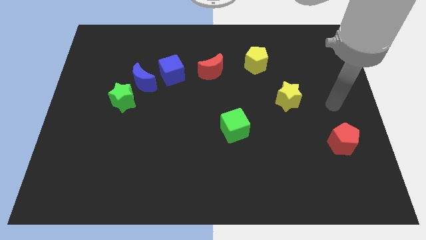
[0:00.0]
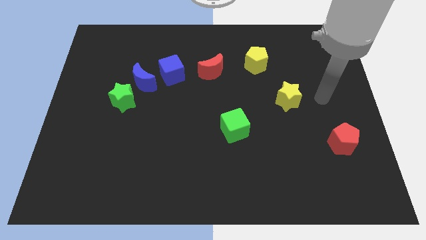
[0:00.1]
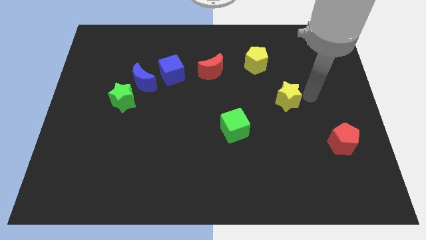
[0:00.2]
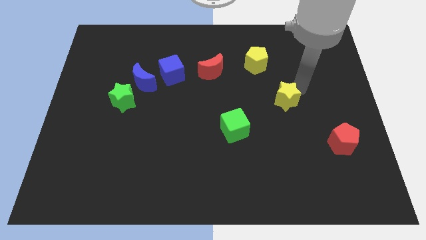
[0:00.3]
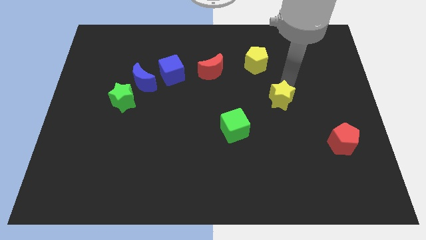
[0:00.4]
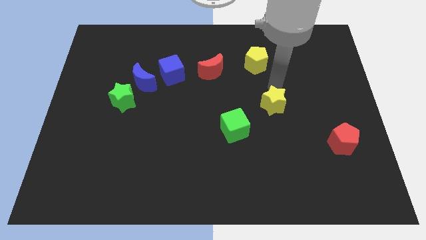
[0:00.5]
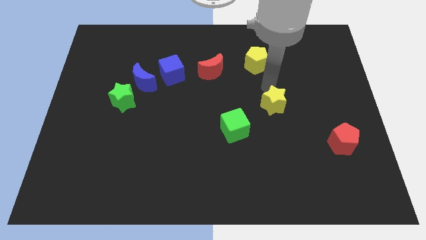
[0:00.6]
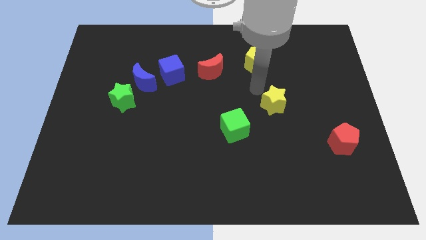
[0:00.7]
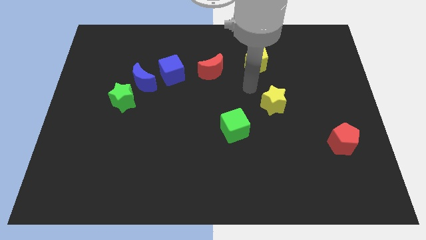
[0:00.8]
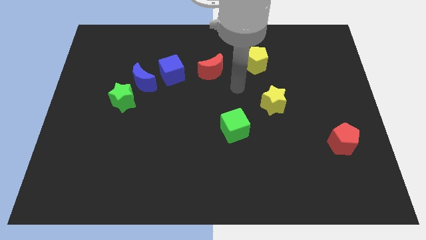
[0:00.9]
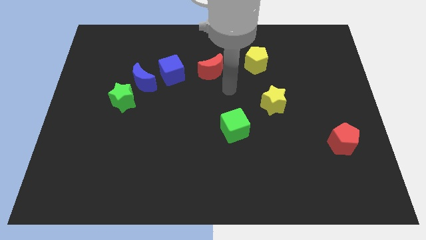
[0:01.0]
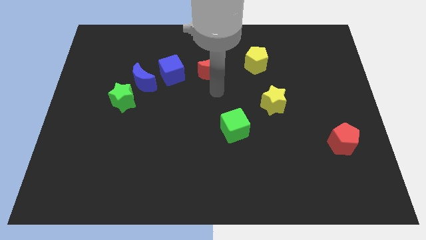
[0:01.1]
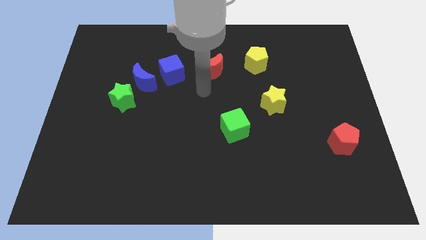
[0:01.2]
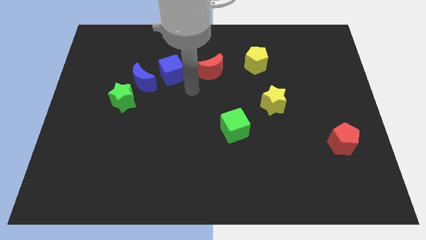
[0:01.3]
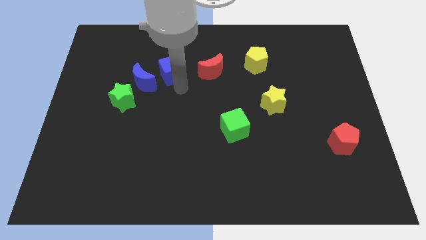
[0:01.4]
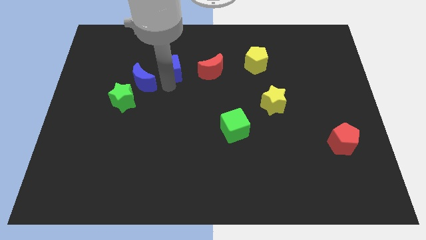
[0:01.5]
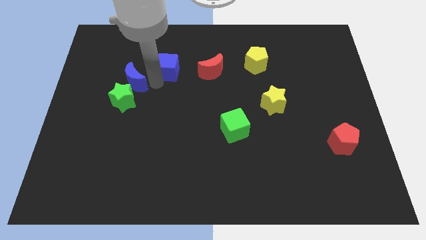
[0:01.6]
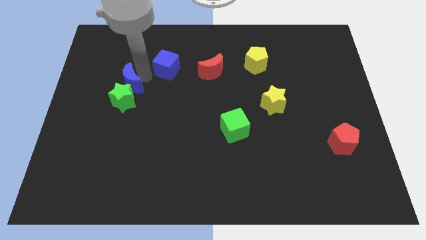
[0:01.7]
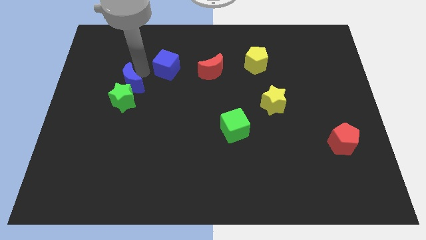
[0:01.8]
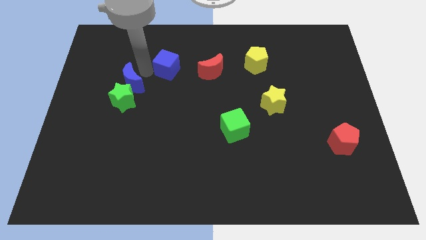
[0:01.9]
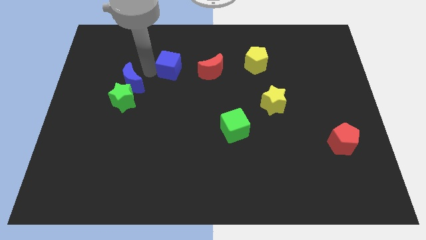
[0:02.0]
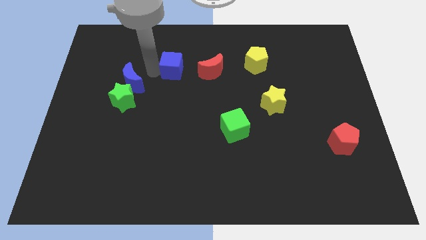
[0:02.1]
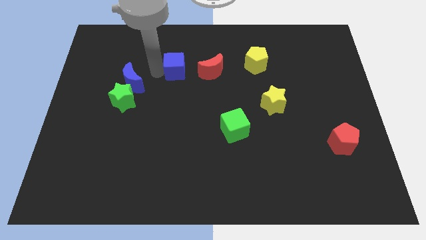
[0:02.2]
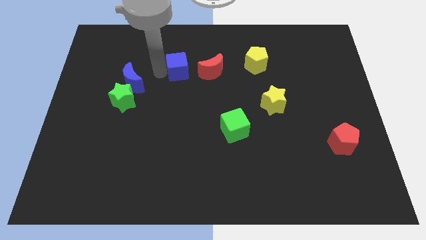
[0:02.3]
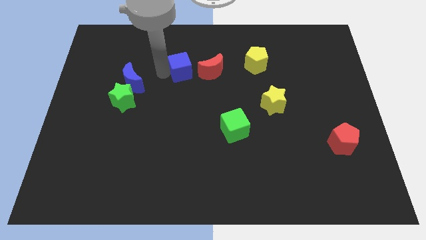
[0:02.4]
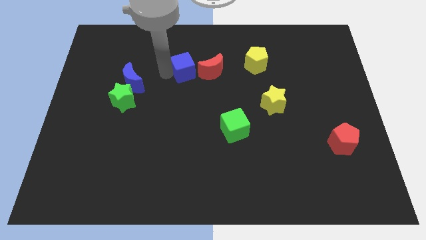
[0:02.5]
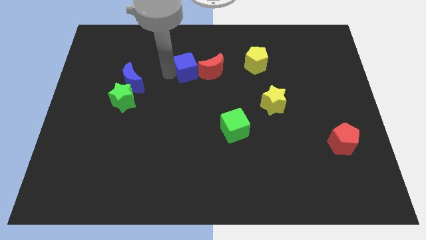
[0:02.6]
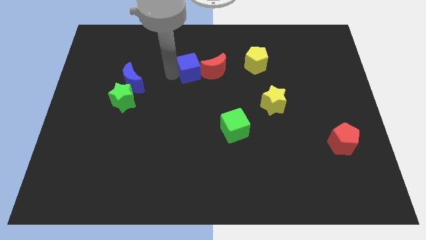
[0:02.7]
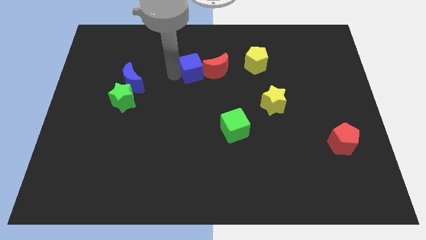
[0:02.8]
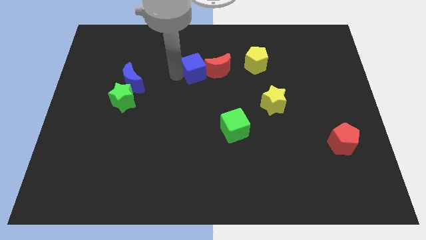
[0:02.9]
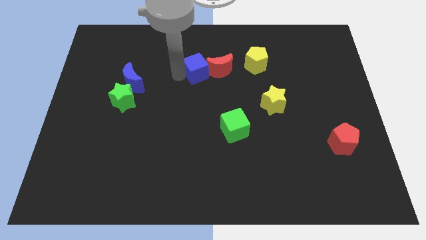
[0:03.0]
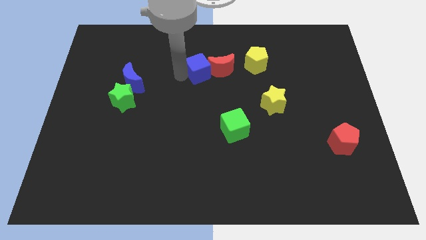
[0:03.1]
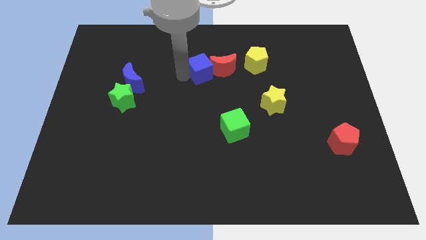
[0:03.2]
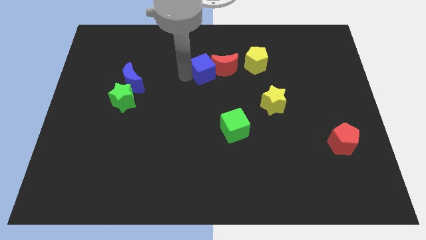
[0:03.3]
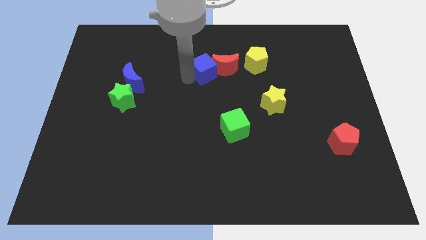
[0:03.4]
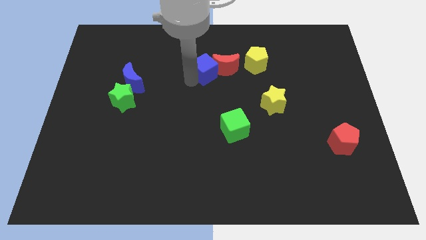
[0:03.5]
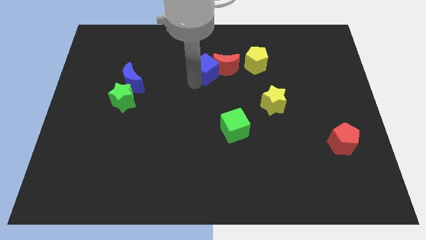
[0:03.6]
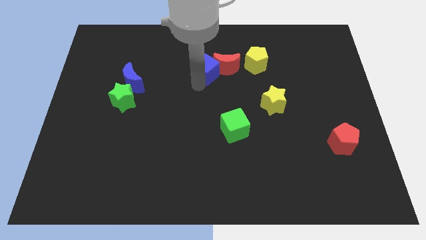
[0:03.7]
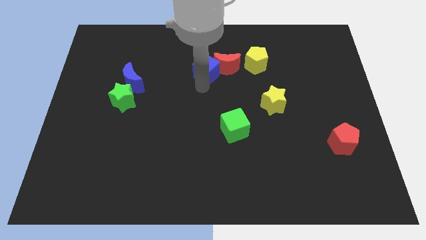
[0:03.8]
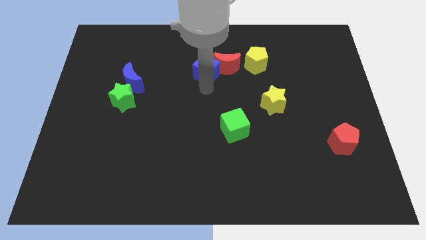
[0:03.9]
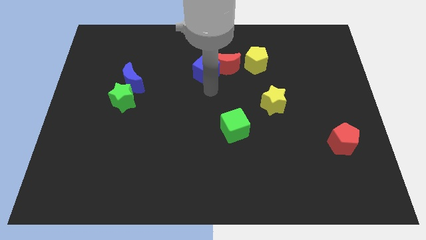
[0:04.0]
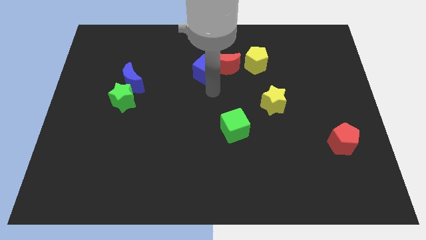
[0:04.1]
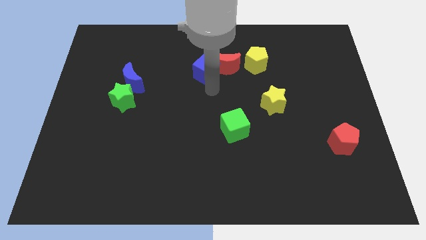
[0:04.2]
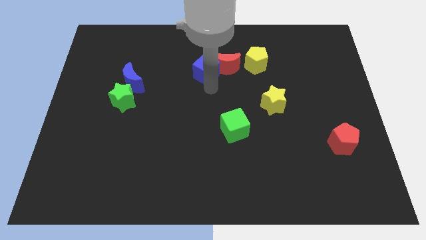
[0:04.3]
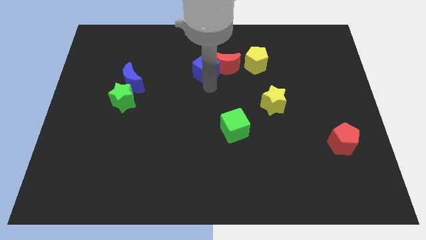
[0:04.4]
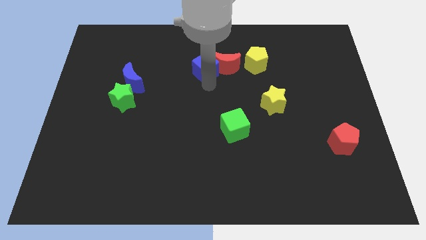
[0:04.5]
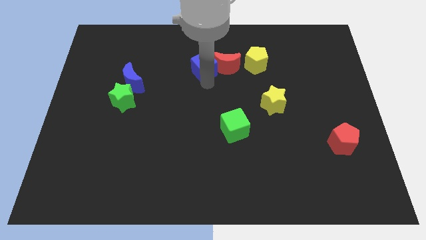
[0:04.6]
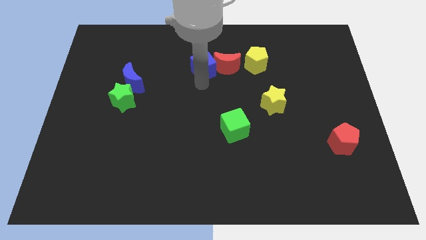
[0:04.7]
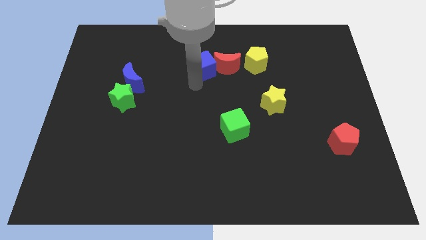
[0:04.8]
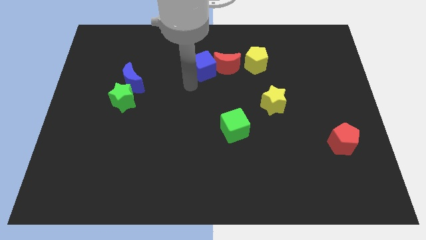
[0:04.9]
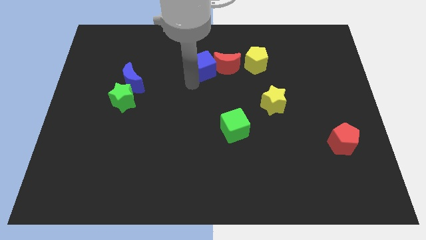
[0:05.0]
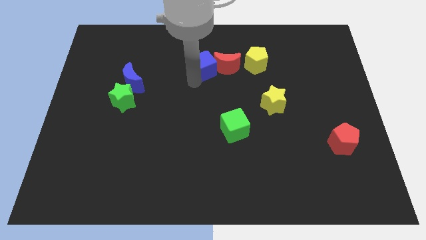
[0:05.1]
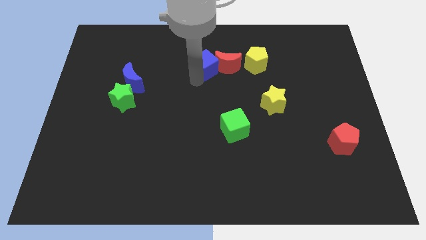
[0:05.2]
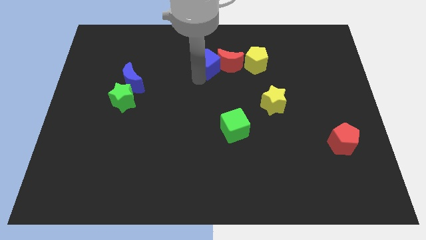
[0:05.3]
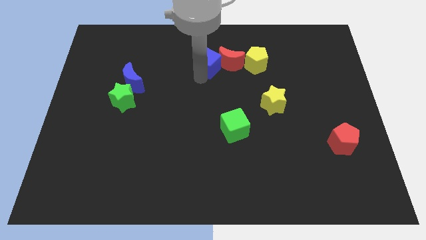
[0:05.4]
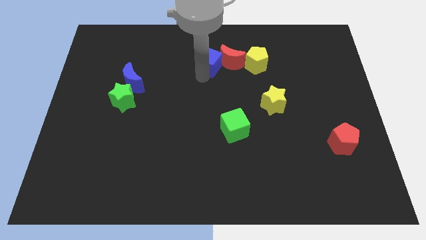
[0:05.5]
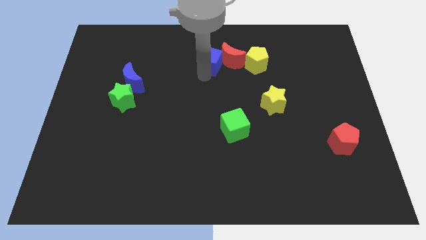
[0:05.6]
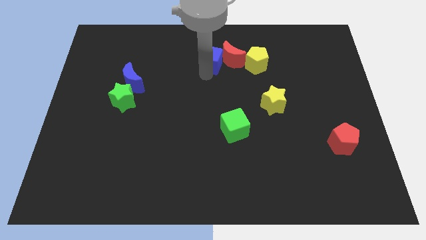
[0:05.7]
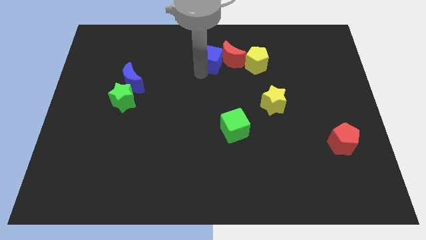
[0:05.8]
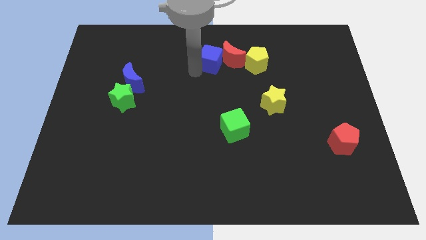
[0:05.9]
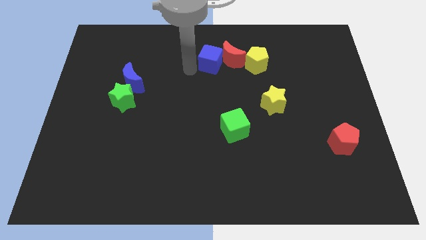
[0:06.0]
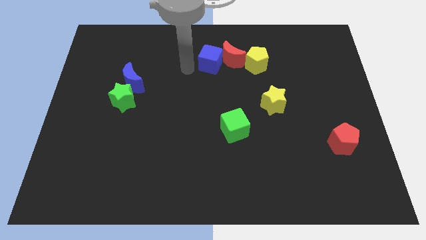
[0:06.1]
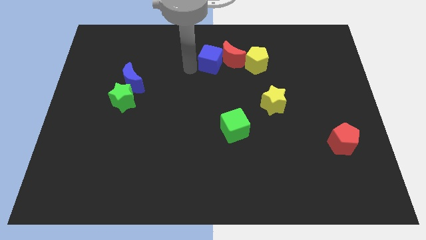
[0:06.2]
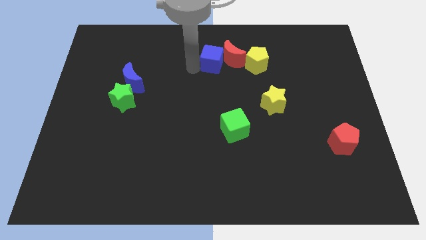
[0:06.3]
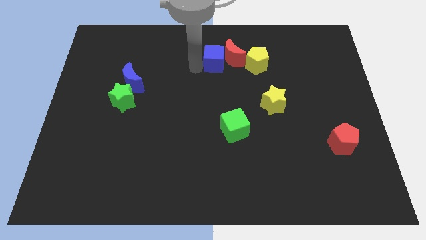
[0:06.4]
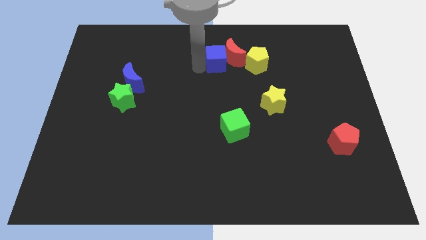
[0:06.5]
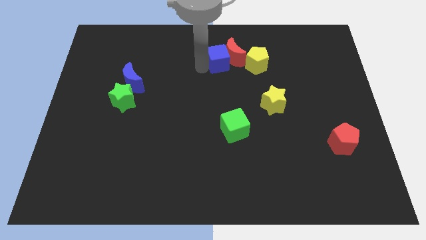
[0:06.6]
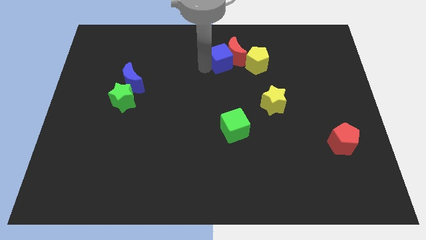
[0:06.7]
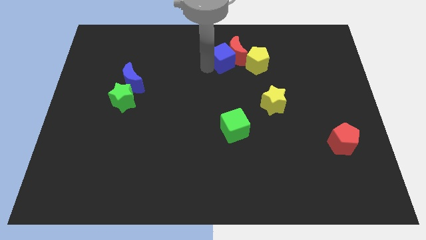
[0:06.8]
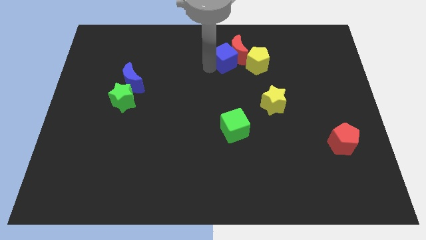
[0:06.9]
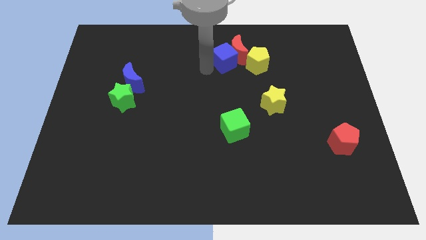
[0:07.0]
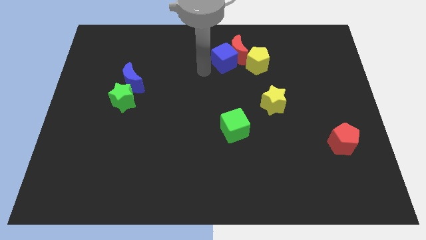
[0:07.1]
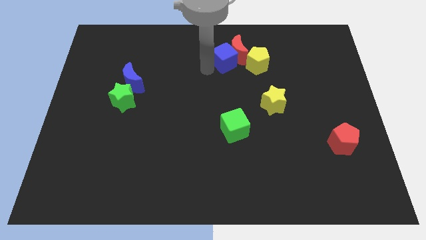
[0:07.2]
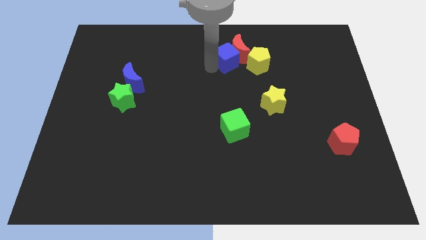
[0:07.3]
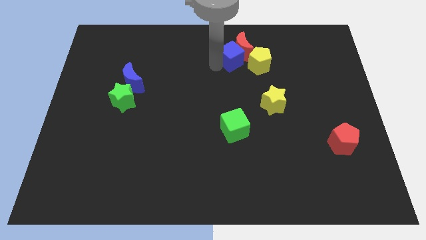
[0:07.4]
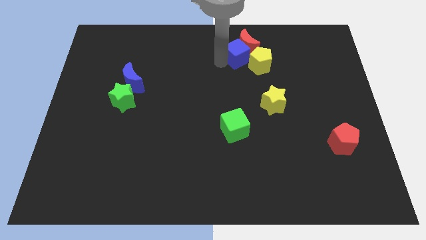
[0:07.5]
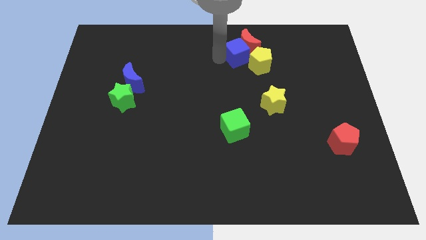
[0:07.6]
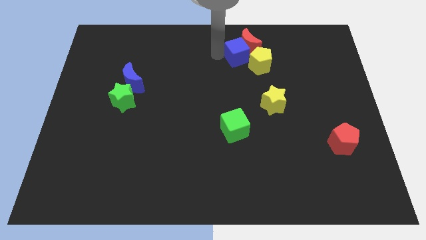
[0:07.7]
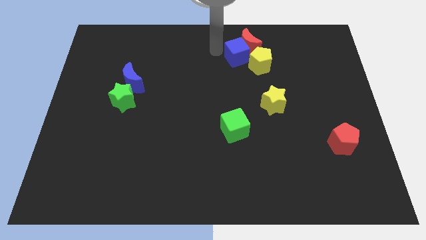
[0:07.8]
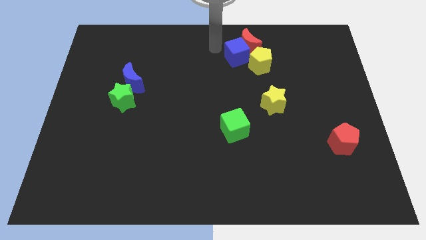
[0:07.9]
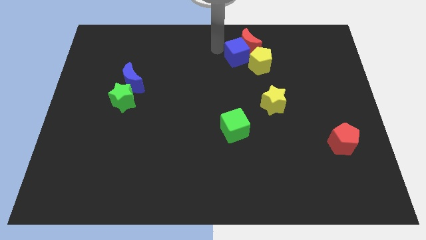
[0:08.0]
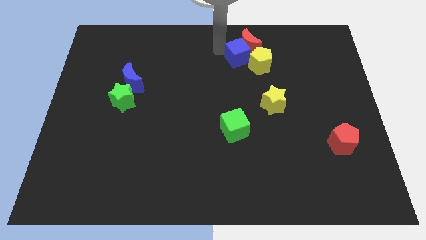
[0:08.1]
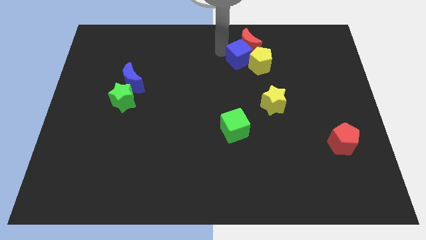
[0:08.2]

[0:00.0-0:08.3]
push the blue cube to the yellow pentagon
